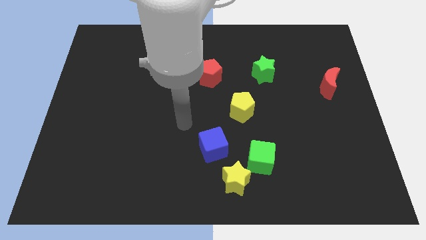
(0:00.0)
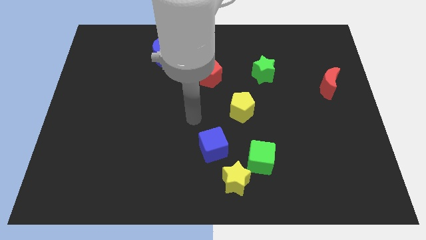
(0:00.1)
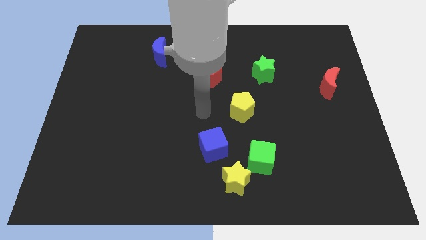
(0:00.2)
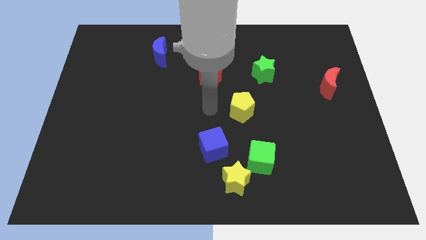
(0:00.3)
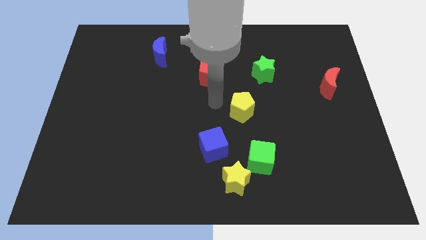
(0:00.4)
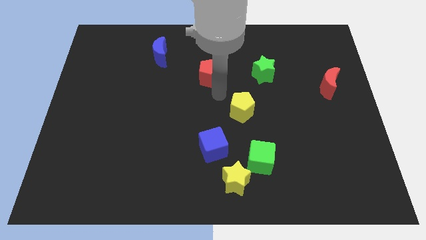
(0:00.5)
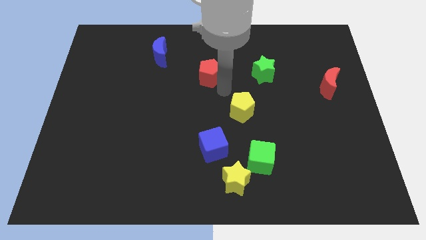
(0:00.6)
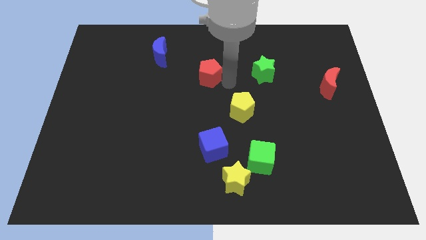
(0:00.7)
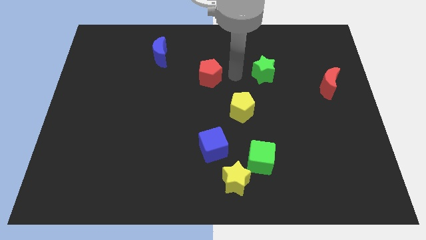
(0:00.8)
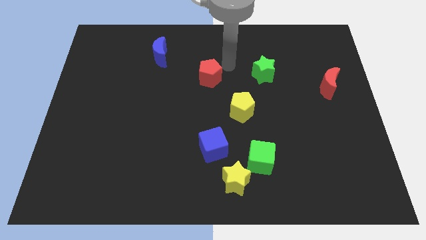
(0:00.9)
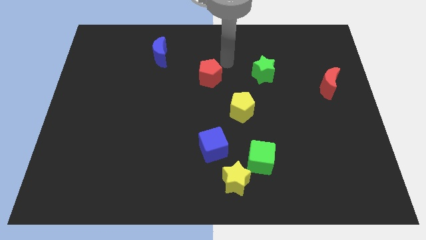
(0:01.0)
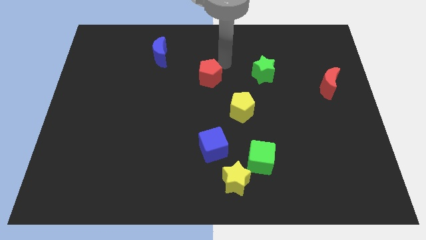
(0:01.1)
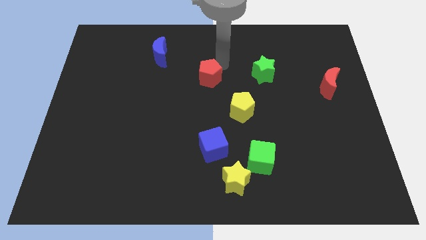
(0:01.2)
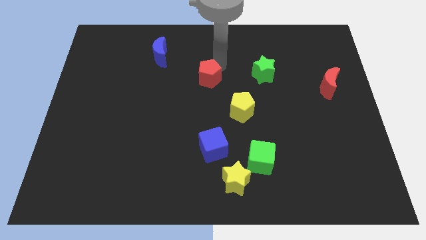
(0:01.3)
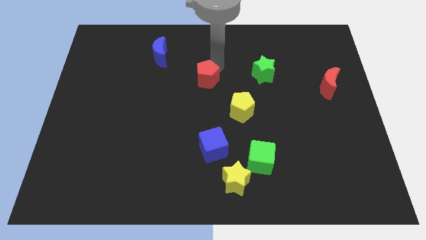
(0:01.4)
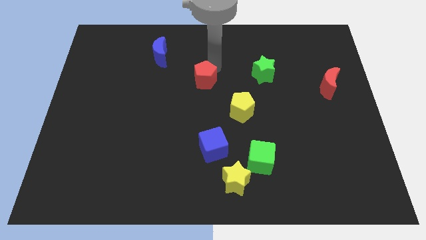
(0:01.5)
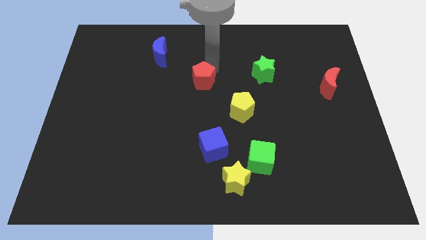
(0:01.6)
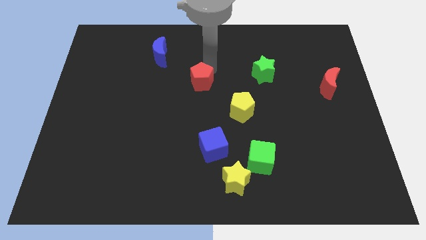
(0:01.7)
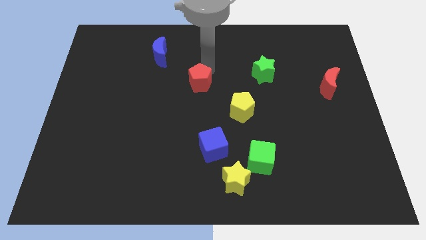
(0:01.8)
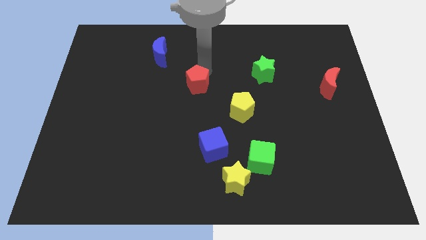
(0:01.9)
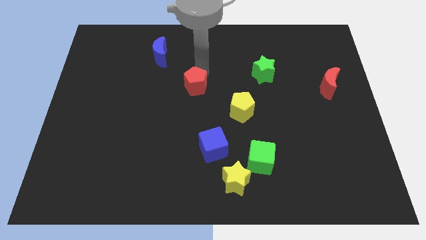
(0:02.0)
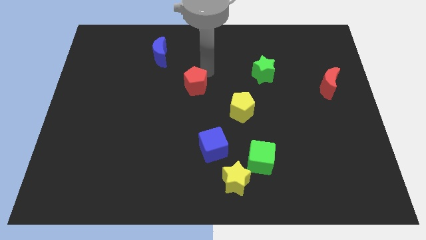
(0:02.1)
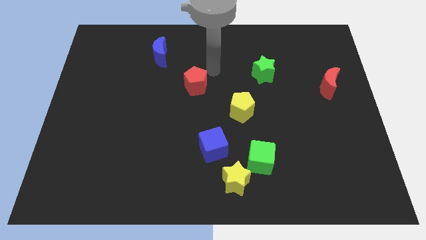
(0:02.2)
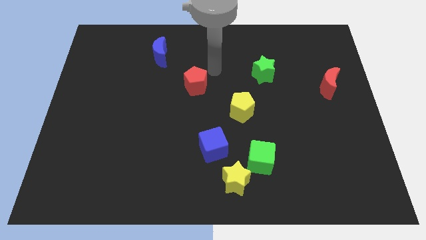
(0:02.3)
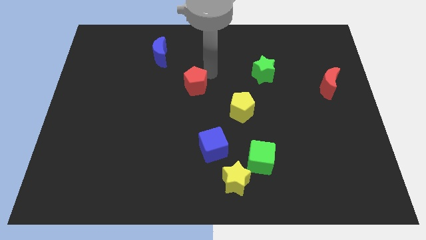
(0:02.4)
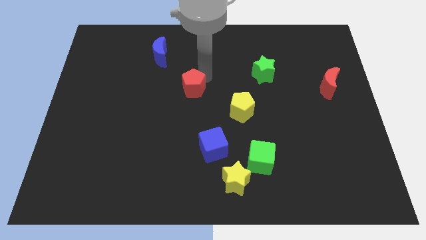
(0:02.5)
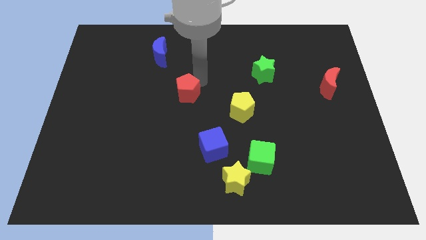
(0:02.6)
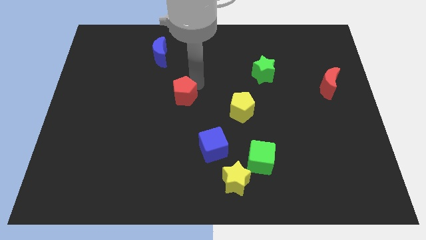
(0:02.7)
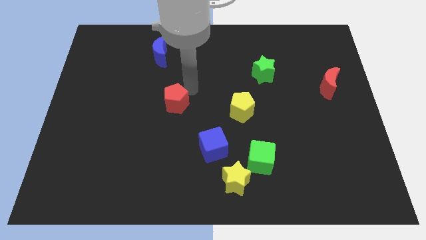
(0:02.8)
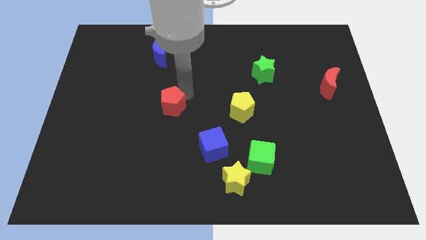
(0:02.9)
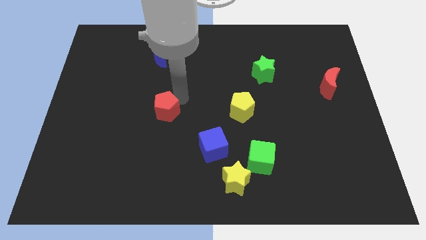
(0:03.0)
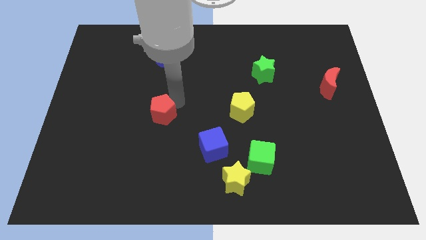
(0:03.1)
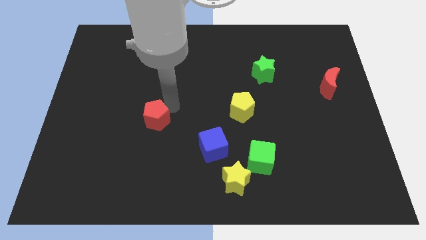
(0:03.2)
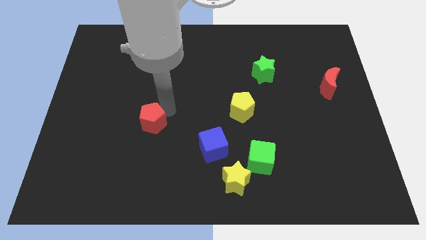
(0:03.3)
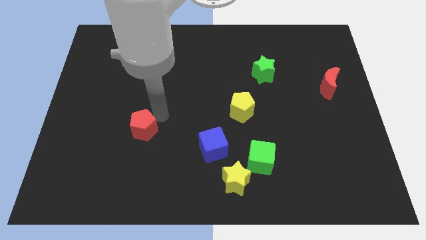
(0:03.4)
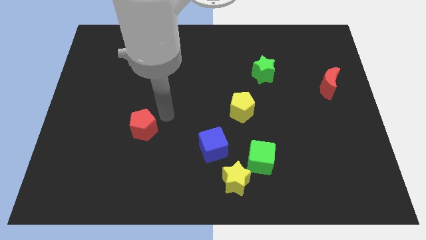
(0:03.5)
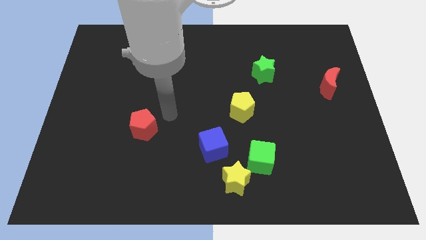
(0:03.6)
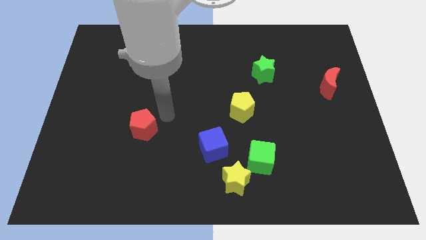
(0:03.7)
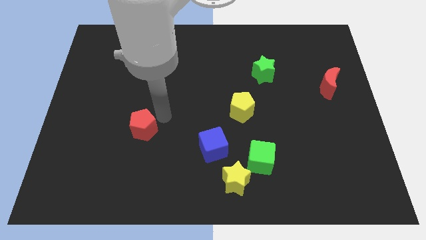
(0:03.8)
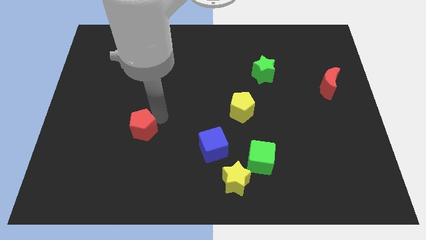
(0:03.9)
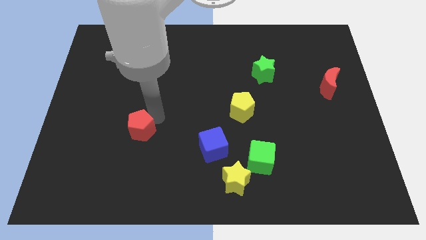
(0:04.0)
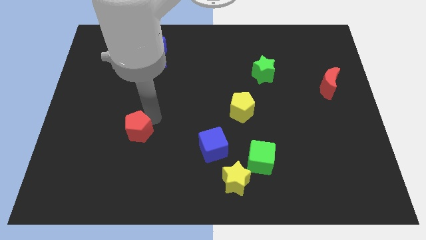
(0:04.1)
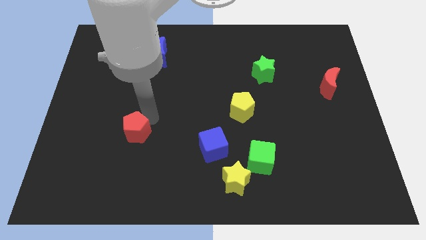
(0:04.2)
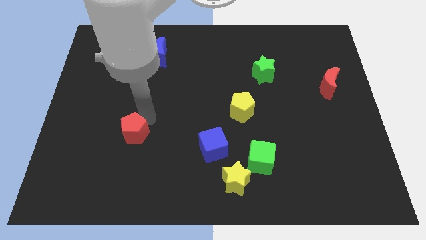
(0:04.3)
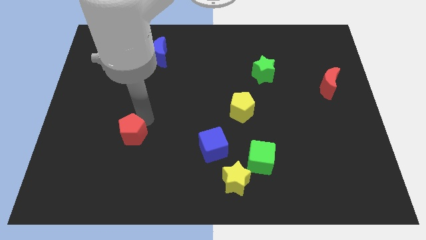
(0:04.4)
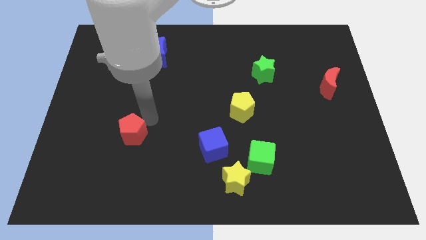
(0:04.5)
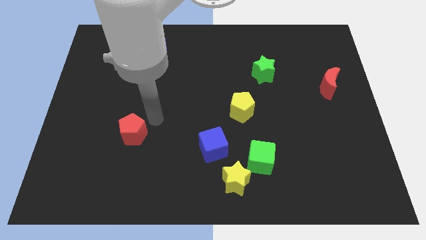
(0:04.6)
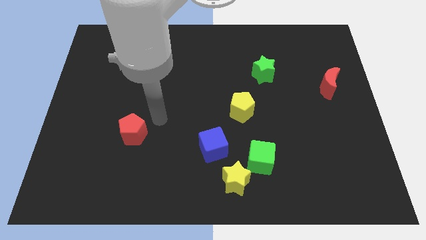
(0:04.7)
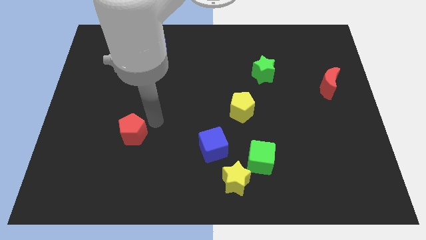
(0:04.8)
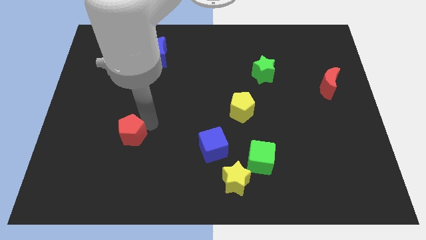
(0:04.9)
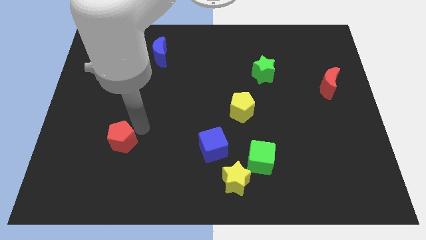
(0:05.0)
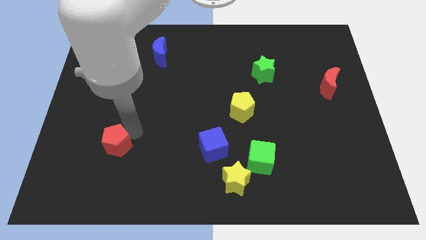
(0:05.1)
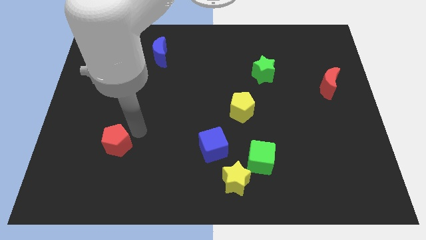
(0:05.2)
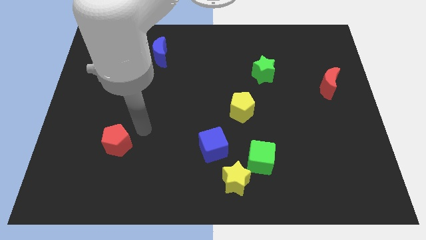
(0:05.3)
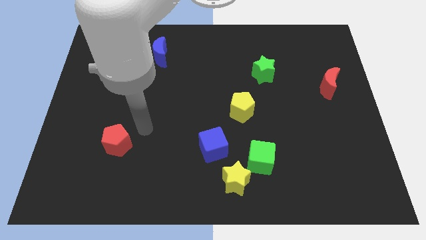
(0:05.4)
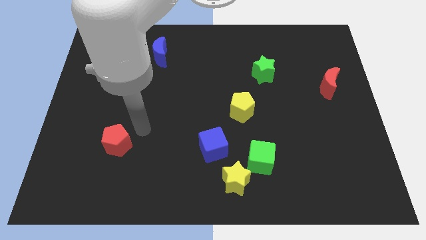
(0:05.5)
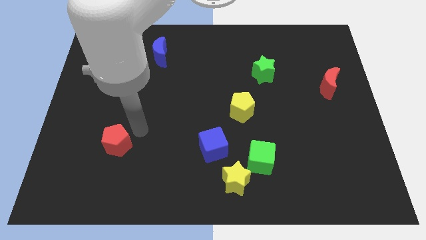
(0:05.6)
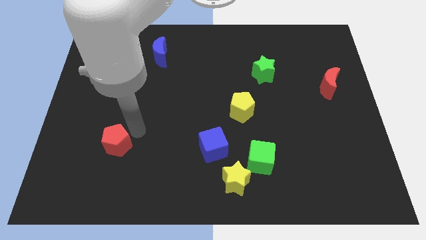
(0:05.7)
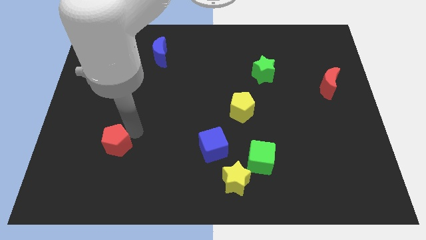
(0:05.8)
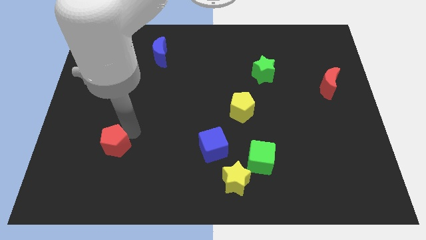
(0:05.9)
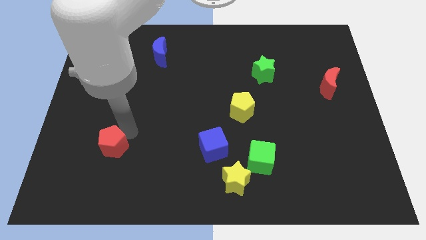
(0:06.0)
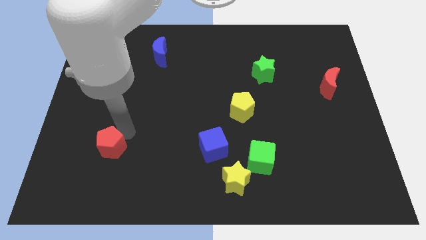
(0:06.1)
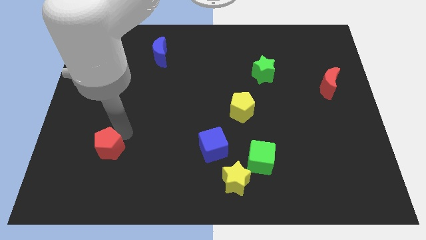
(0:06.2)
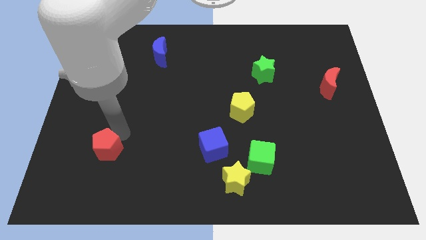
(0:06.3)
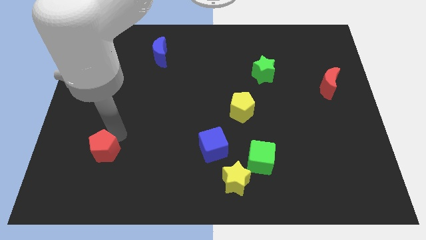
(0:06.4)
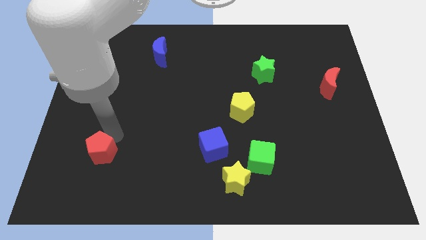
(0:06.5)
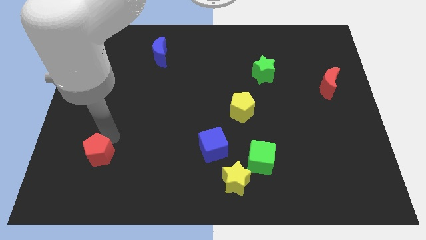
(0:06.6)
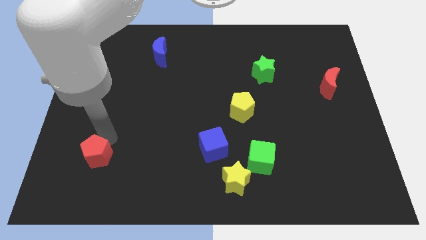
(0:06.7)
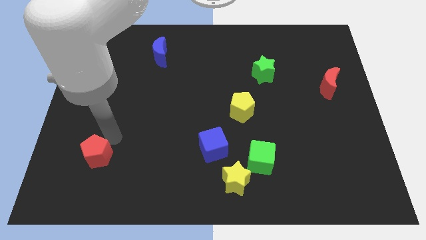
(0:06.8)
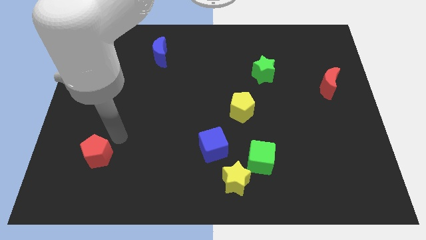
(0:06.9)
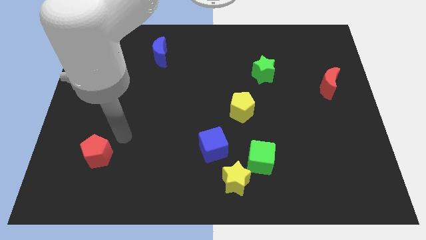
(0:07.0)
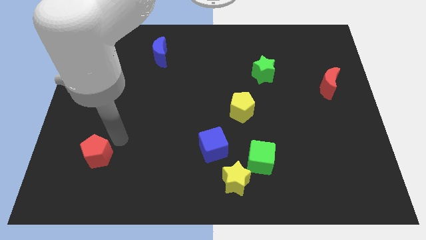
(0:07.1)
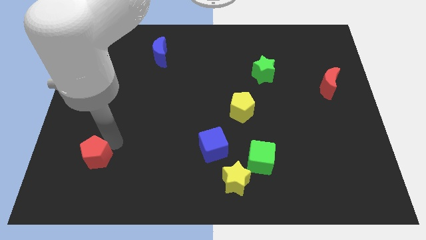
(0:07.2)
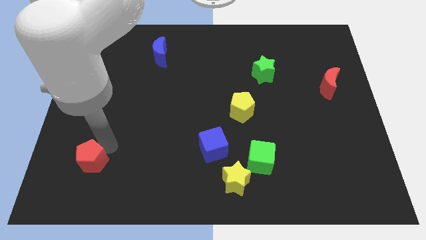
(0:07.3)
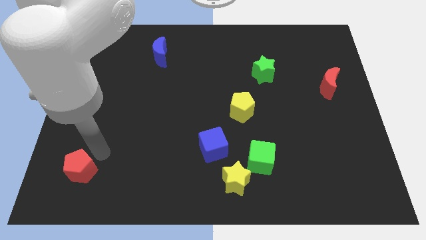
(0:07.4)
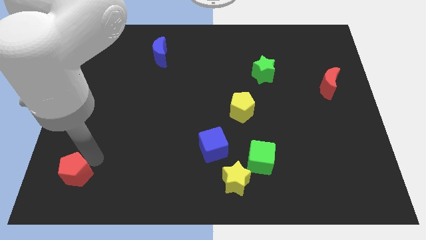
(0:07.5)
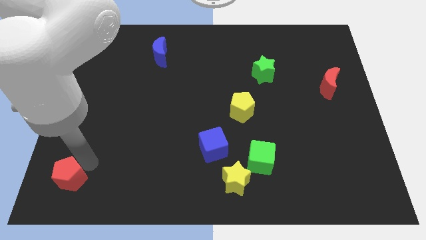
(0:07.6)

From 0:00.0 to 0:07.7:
move the red pentagon to the bottom left corner

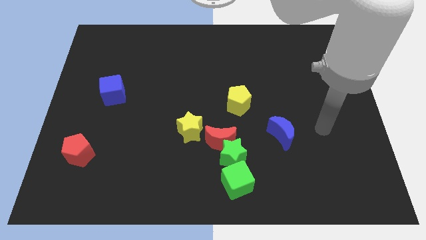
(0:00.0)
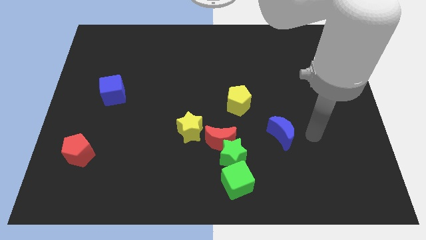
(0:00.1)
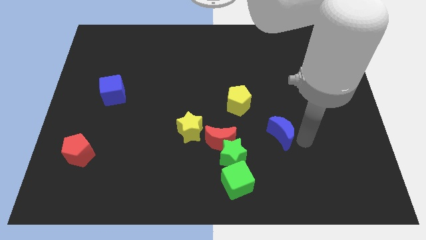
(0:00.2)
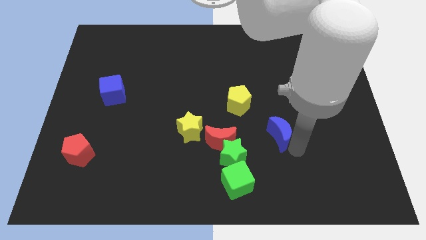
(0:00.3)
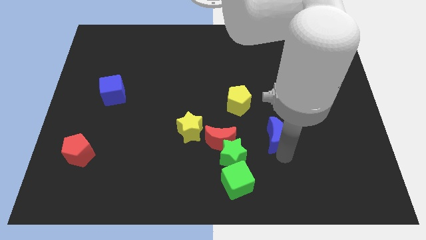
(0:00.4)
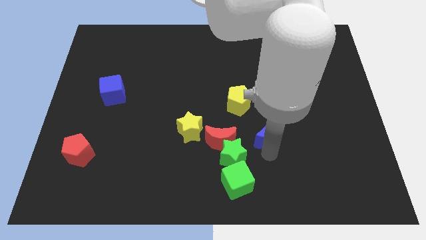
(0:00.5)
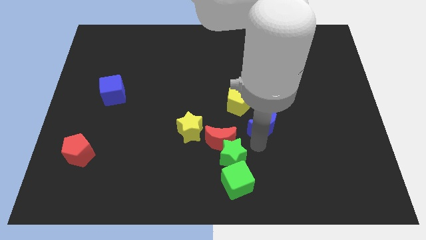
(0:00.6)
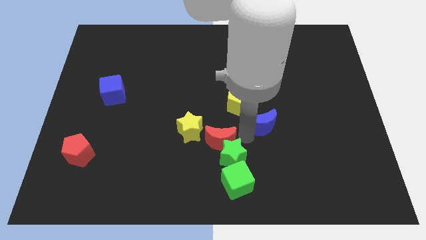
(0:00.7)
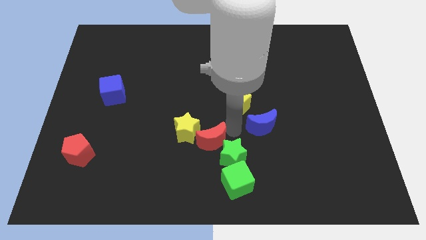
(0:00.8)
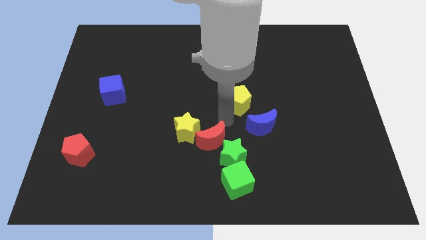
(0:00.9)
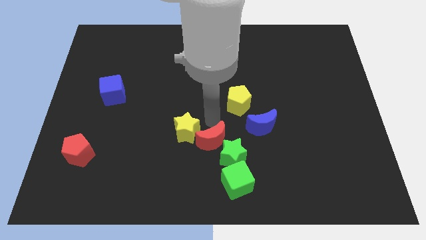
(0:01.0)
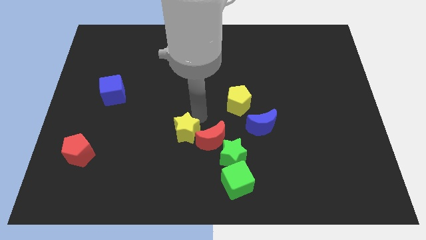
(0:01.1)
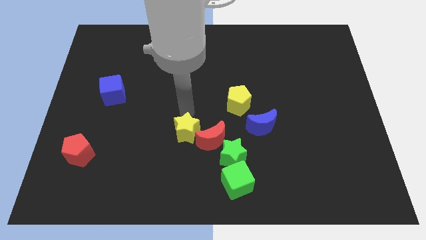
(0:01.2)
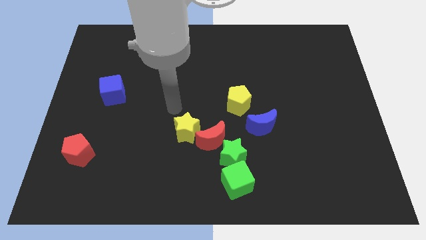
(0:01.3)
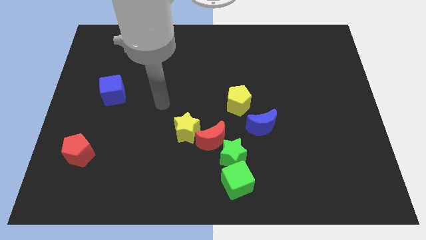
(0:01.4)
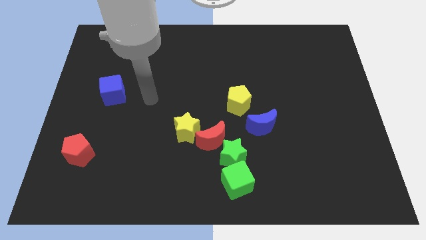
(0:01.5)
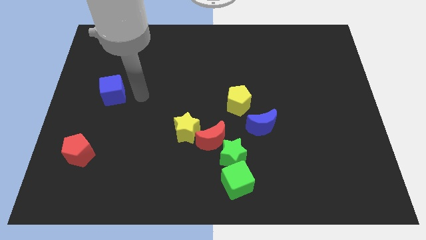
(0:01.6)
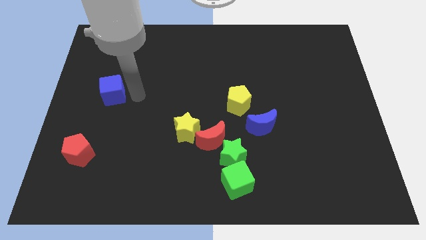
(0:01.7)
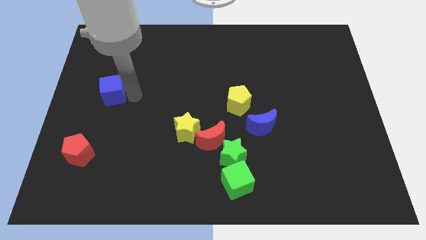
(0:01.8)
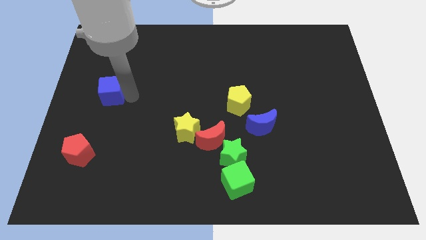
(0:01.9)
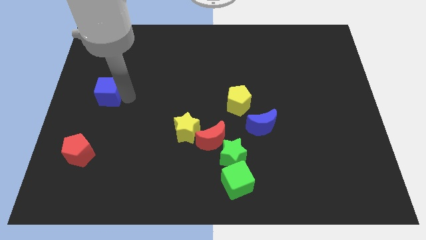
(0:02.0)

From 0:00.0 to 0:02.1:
put the blue cube to the left side of the board
